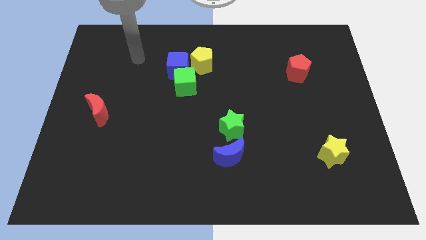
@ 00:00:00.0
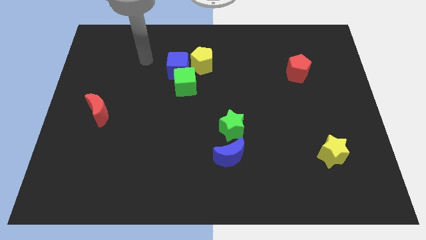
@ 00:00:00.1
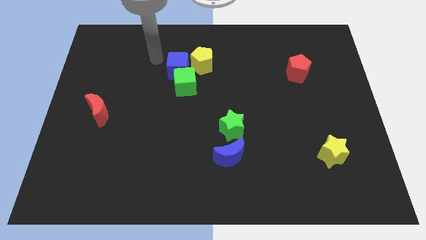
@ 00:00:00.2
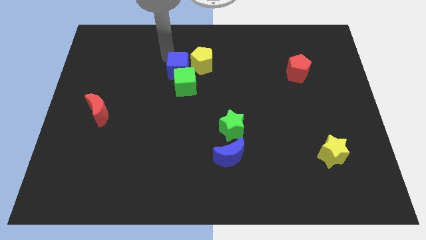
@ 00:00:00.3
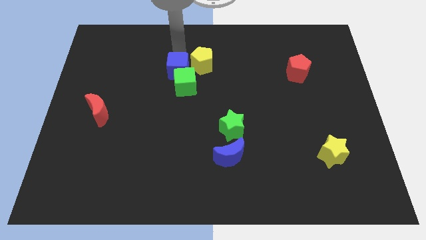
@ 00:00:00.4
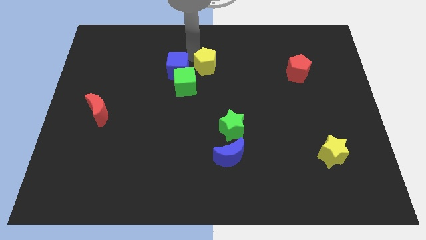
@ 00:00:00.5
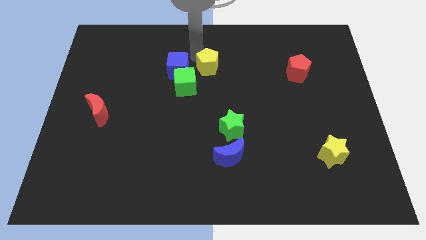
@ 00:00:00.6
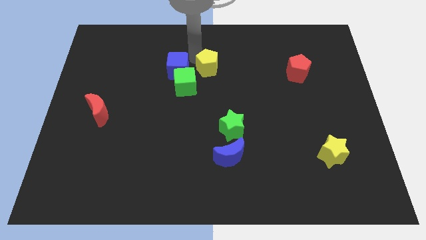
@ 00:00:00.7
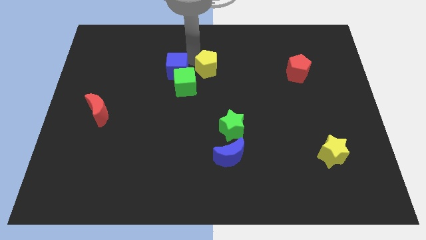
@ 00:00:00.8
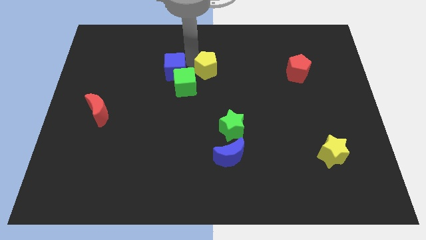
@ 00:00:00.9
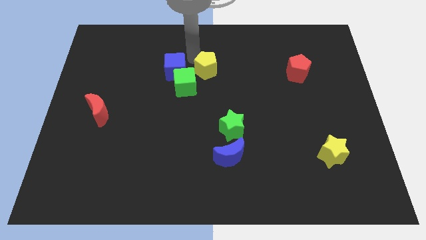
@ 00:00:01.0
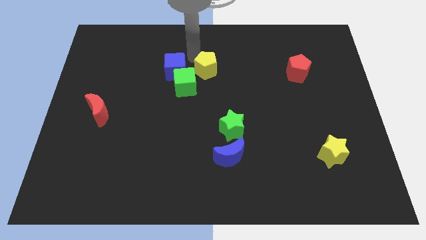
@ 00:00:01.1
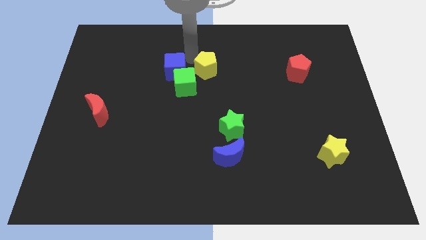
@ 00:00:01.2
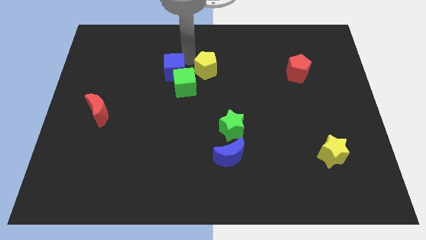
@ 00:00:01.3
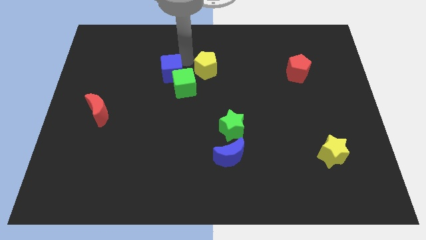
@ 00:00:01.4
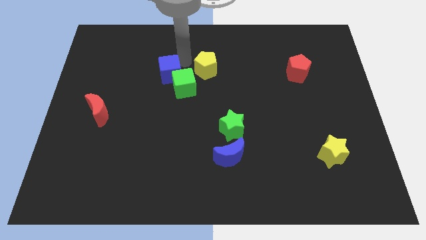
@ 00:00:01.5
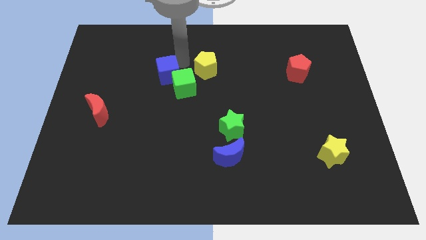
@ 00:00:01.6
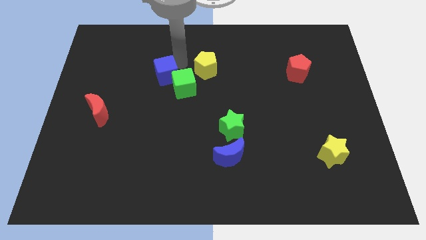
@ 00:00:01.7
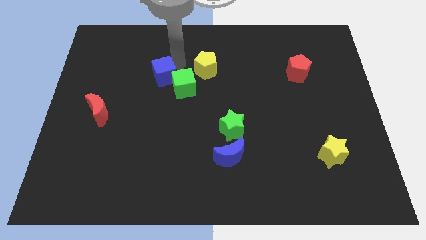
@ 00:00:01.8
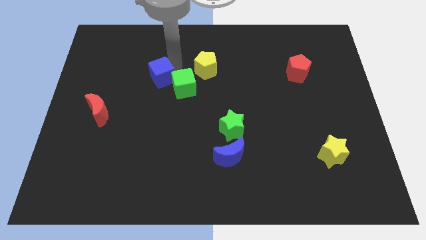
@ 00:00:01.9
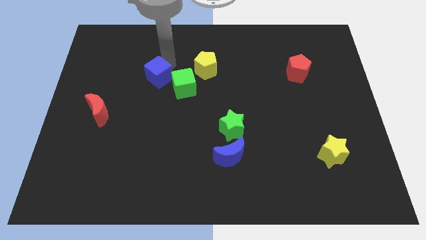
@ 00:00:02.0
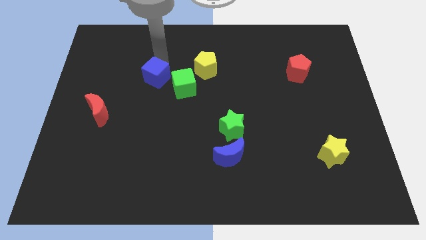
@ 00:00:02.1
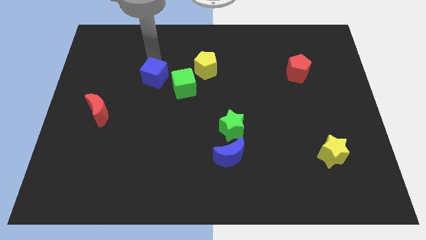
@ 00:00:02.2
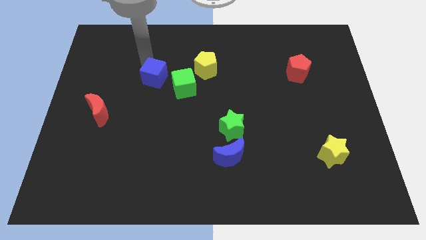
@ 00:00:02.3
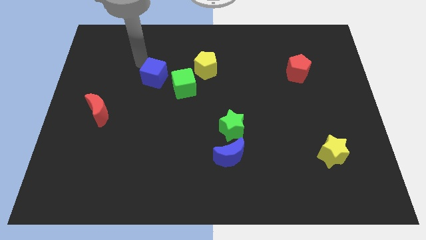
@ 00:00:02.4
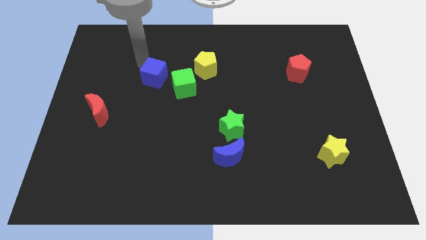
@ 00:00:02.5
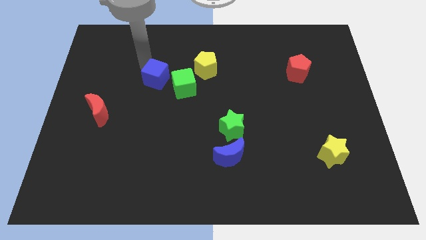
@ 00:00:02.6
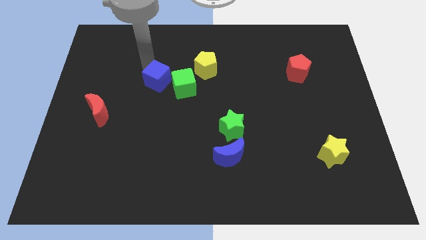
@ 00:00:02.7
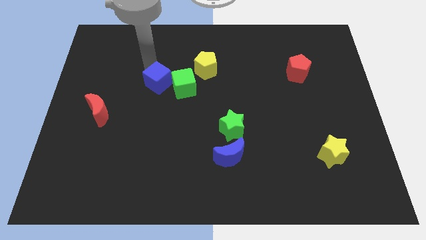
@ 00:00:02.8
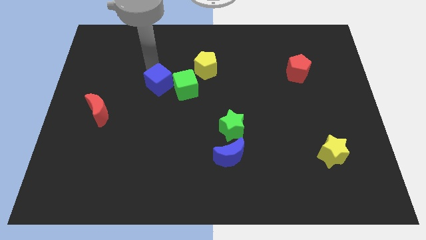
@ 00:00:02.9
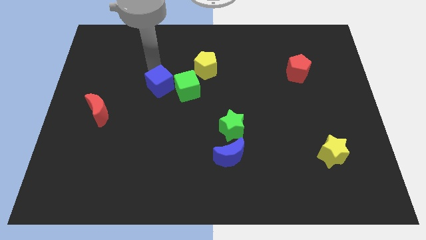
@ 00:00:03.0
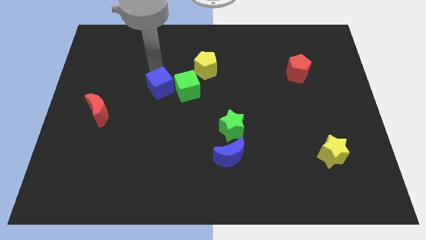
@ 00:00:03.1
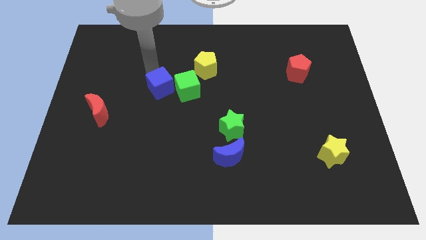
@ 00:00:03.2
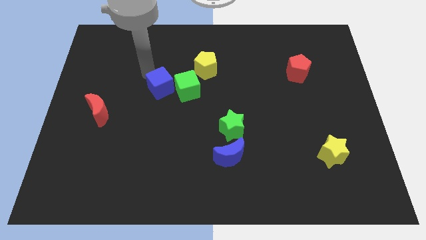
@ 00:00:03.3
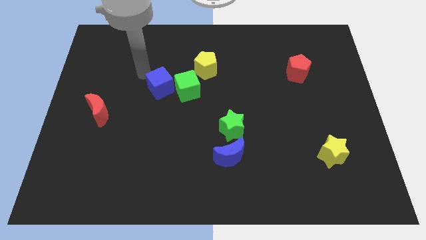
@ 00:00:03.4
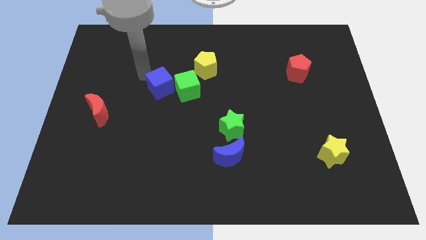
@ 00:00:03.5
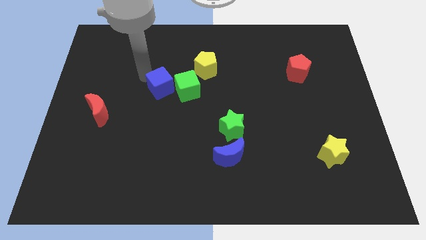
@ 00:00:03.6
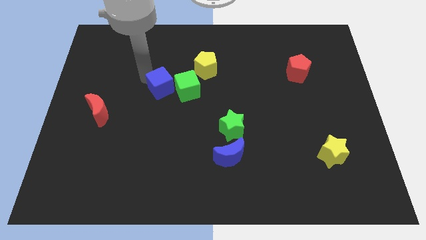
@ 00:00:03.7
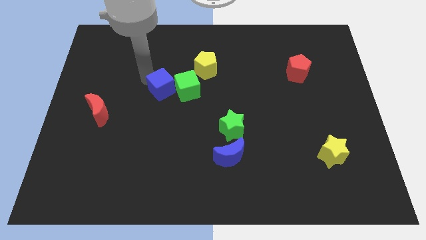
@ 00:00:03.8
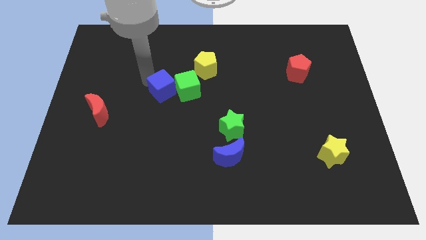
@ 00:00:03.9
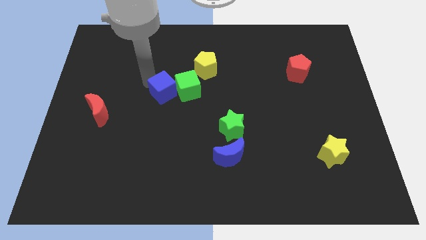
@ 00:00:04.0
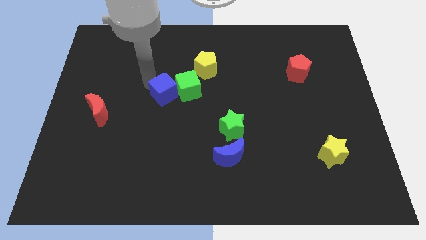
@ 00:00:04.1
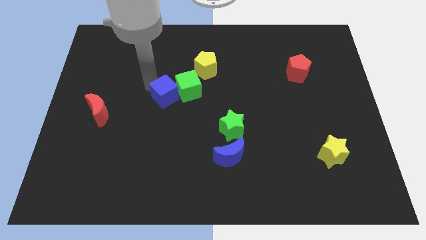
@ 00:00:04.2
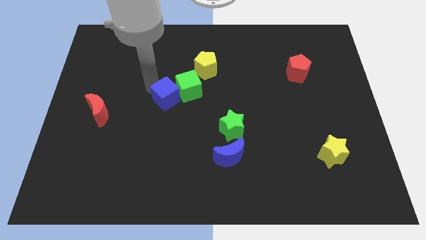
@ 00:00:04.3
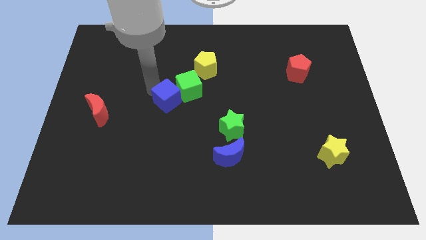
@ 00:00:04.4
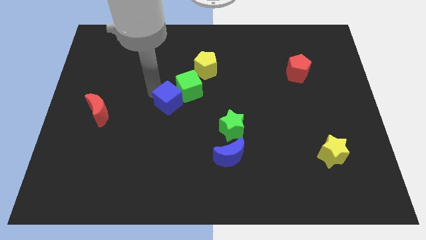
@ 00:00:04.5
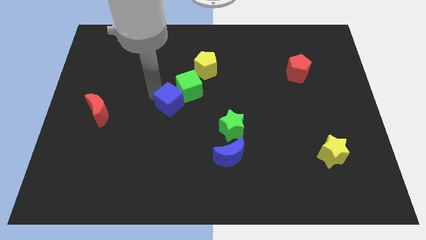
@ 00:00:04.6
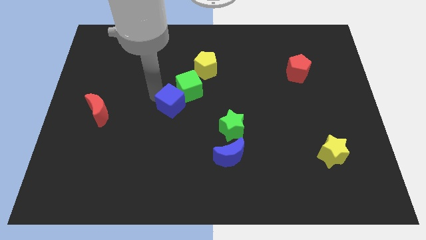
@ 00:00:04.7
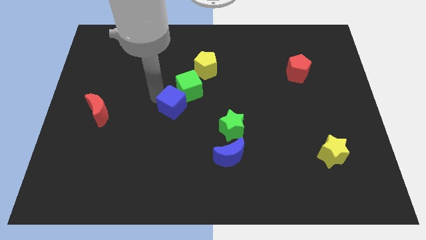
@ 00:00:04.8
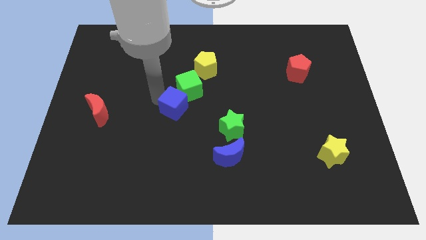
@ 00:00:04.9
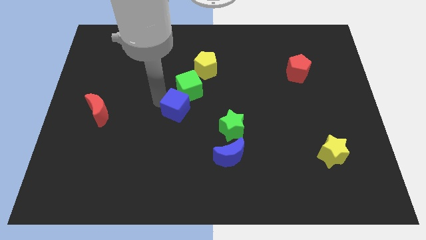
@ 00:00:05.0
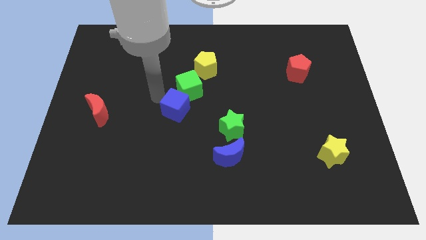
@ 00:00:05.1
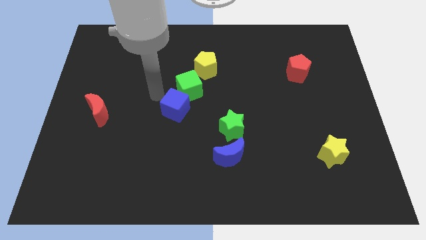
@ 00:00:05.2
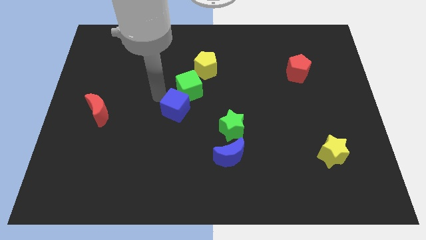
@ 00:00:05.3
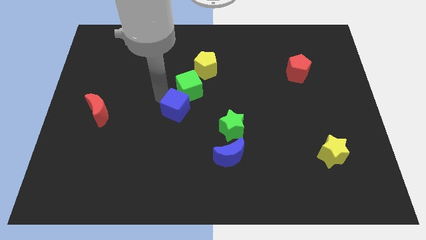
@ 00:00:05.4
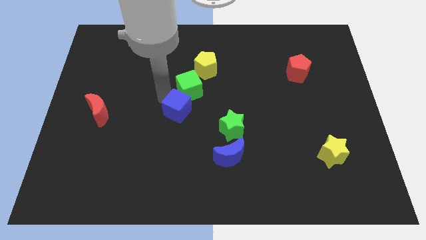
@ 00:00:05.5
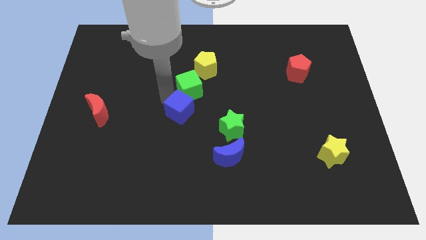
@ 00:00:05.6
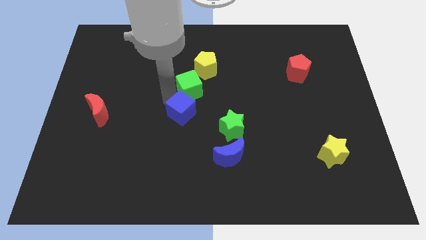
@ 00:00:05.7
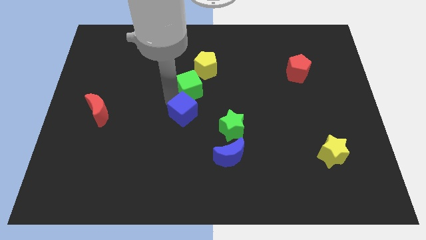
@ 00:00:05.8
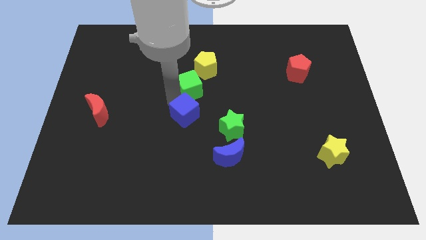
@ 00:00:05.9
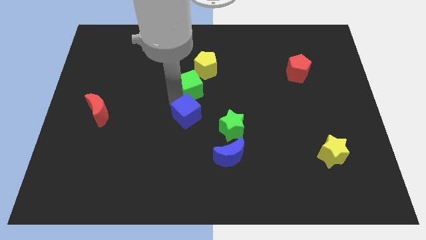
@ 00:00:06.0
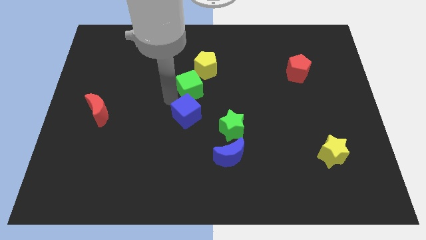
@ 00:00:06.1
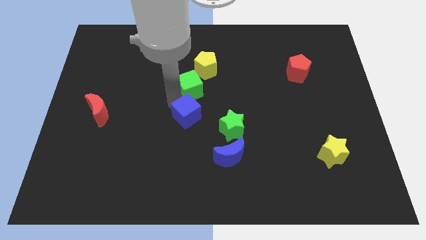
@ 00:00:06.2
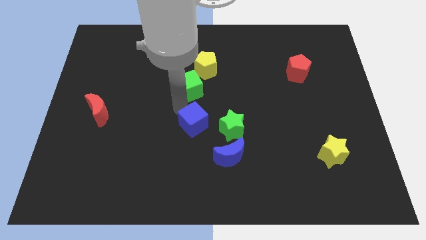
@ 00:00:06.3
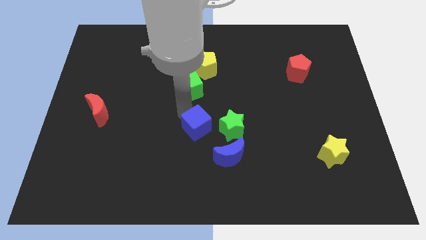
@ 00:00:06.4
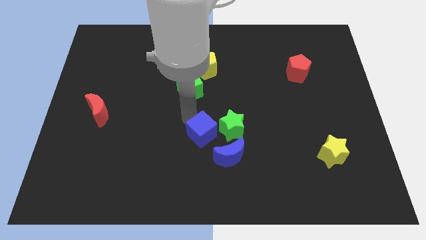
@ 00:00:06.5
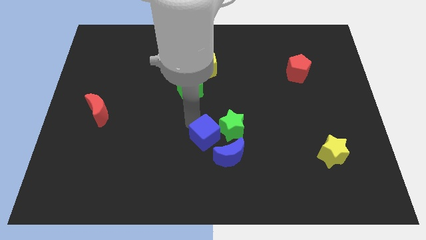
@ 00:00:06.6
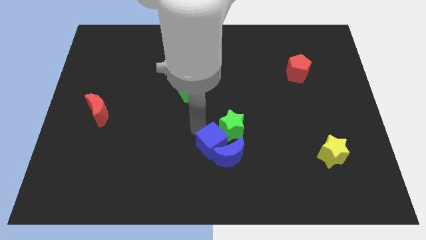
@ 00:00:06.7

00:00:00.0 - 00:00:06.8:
put the blue cube close to the blue moon
